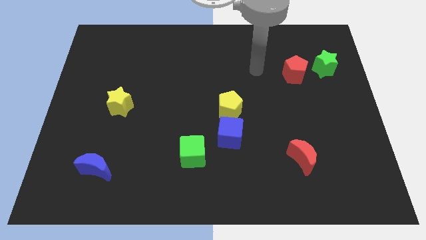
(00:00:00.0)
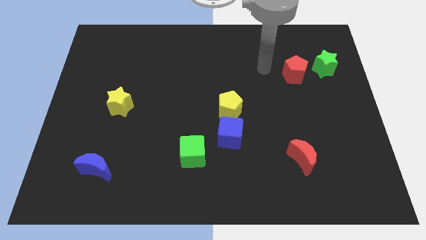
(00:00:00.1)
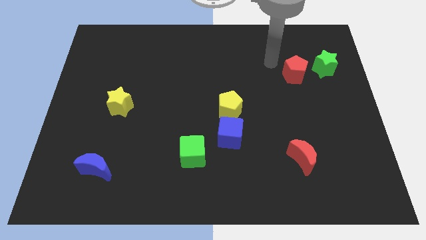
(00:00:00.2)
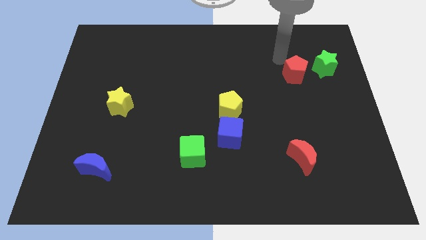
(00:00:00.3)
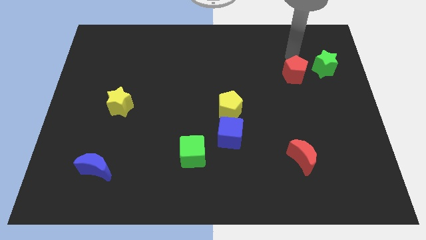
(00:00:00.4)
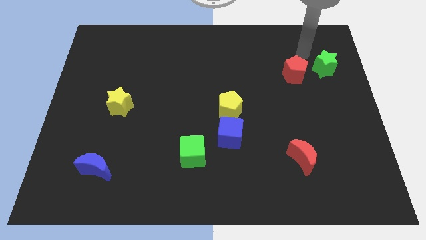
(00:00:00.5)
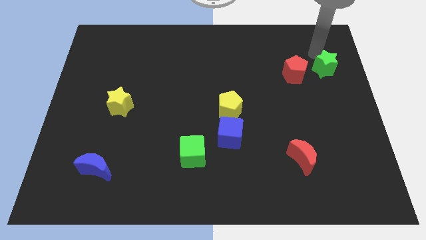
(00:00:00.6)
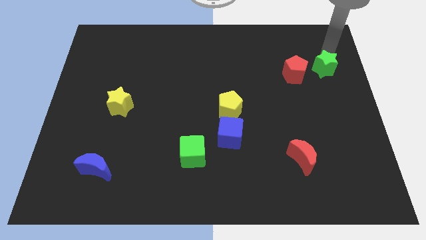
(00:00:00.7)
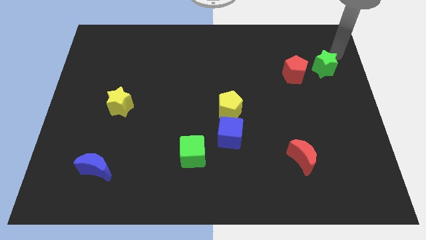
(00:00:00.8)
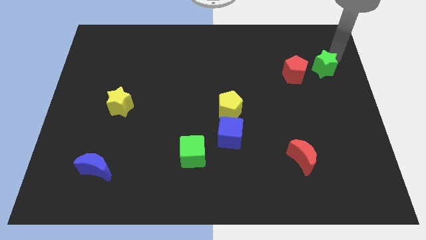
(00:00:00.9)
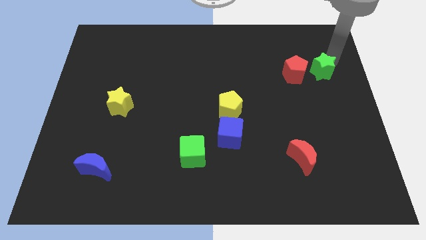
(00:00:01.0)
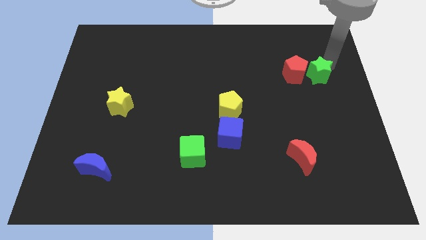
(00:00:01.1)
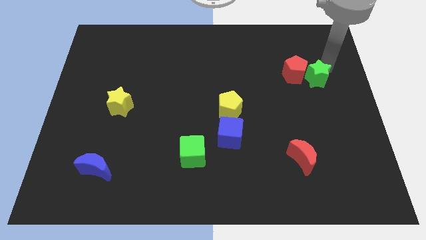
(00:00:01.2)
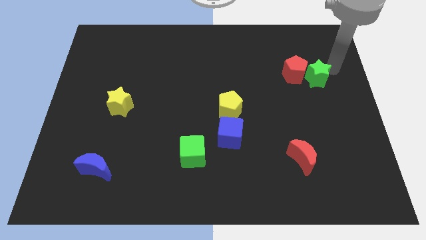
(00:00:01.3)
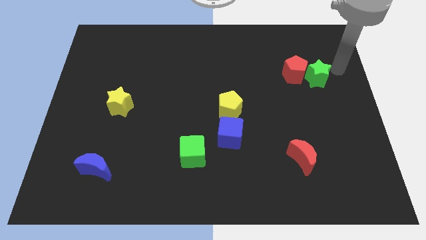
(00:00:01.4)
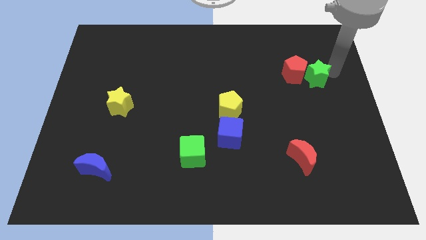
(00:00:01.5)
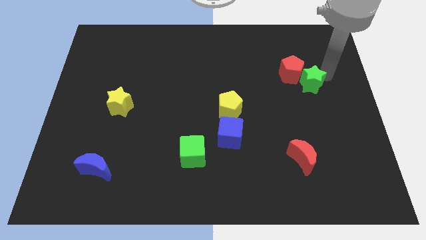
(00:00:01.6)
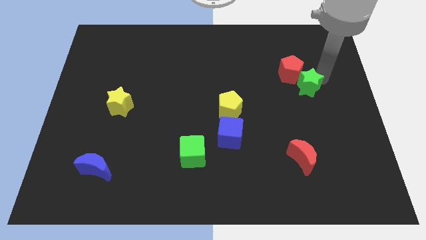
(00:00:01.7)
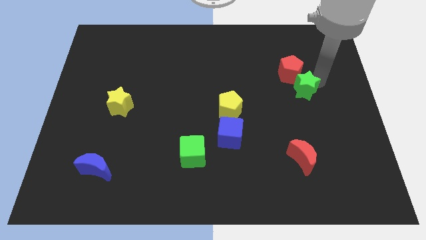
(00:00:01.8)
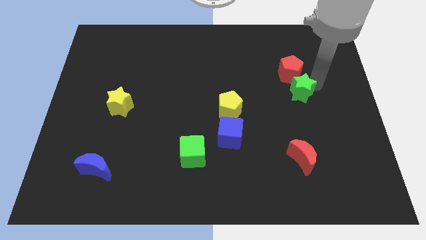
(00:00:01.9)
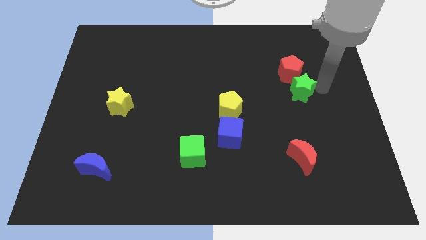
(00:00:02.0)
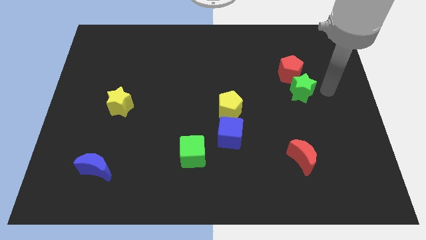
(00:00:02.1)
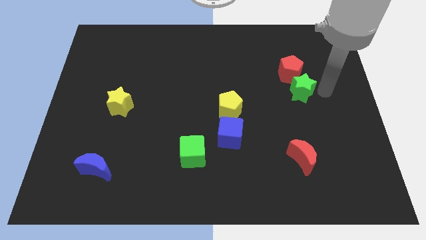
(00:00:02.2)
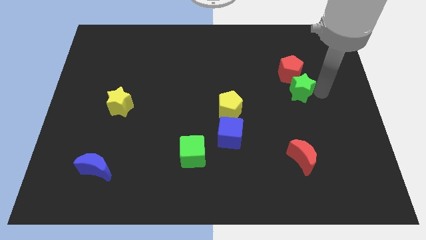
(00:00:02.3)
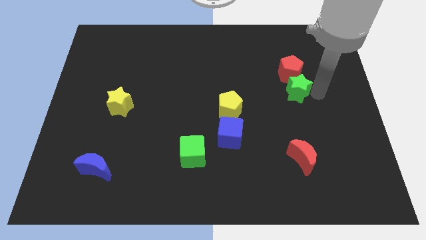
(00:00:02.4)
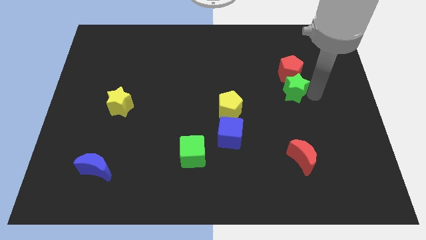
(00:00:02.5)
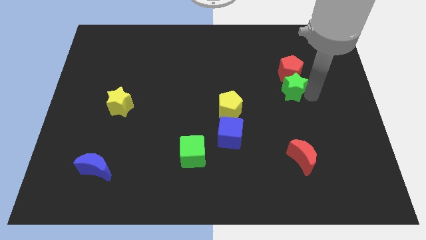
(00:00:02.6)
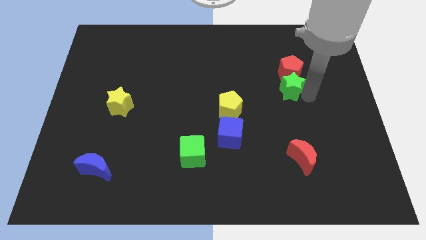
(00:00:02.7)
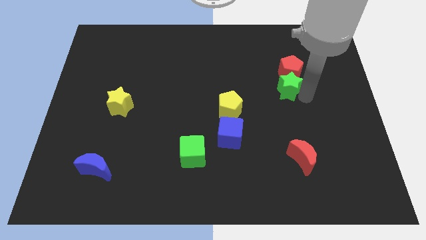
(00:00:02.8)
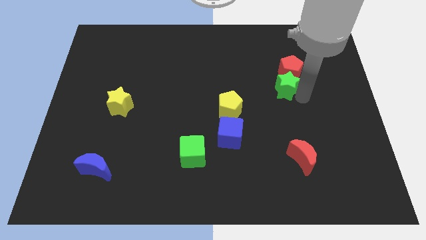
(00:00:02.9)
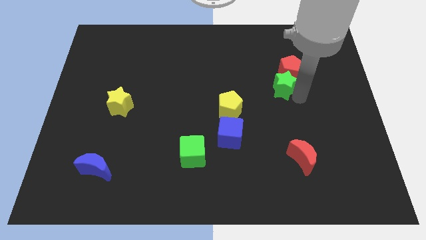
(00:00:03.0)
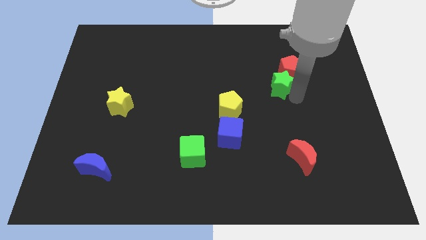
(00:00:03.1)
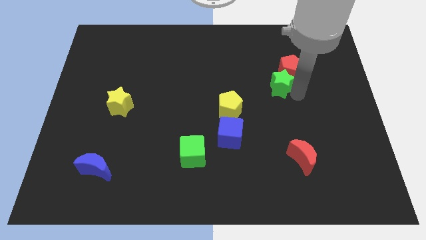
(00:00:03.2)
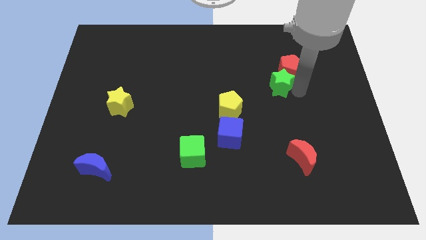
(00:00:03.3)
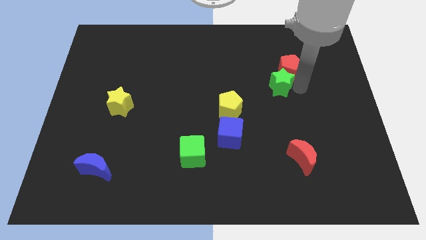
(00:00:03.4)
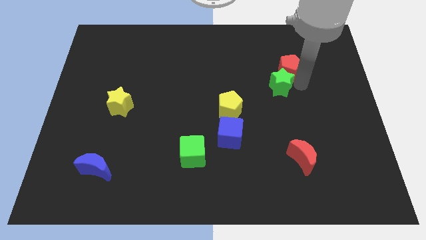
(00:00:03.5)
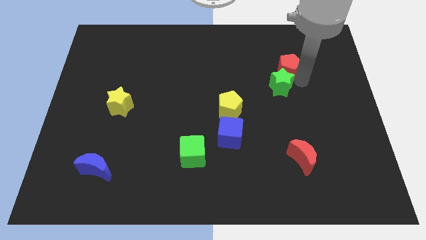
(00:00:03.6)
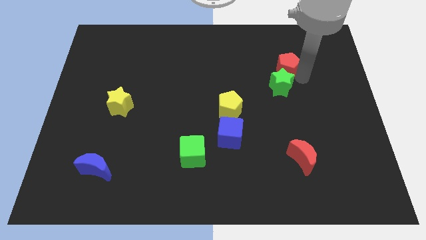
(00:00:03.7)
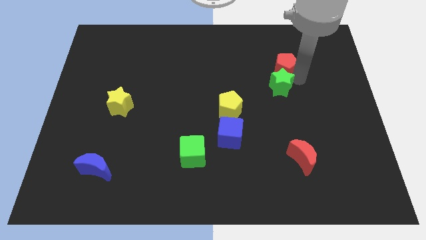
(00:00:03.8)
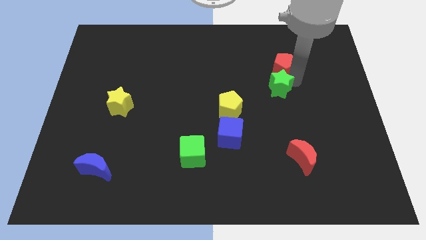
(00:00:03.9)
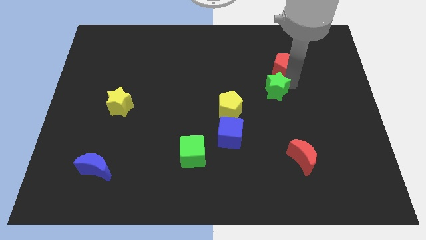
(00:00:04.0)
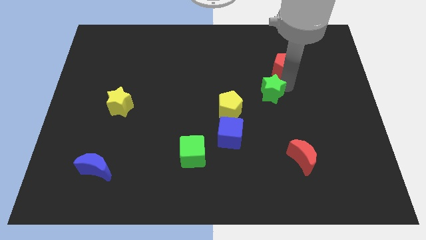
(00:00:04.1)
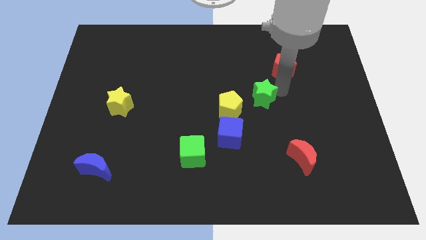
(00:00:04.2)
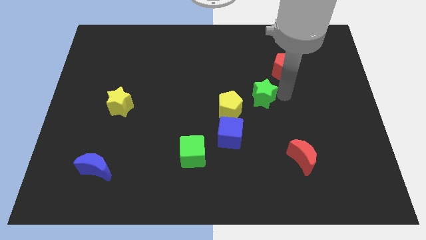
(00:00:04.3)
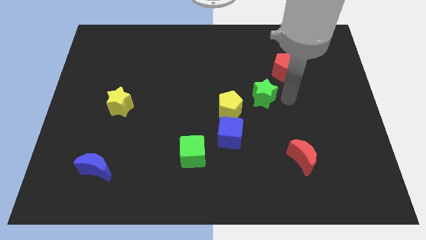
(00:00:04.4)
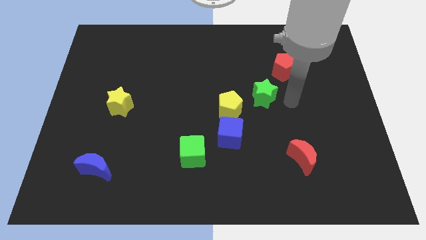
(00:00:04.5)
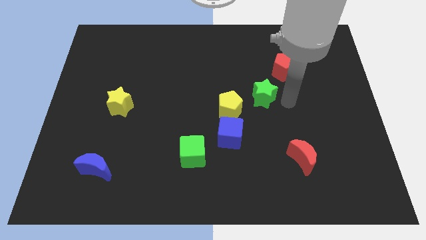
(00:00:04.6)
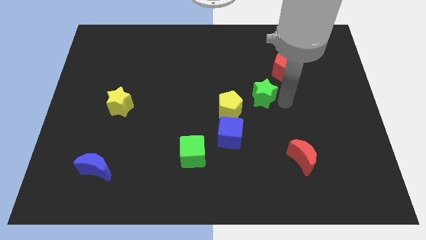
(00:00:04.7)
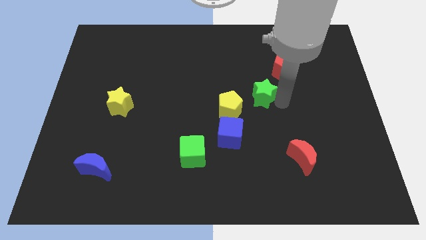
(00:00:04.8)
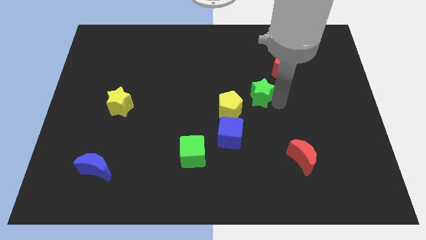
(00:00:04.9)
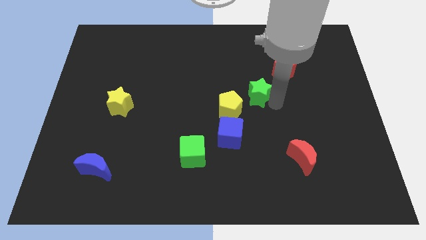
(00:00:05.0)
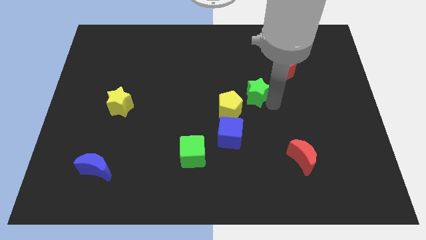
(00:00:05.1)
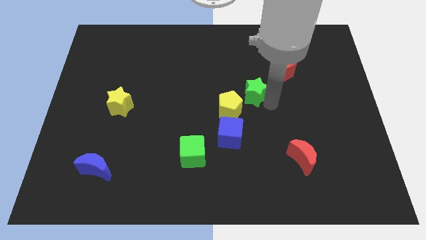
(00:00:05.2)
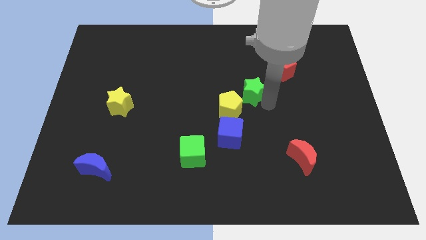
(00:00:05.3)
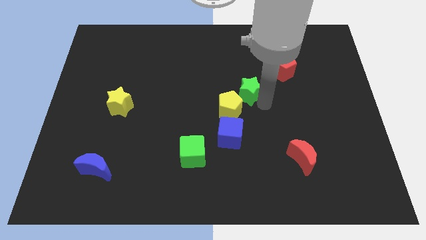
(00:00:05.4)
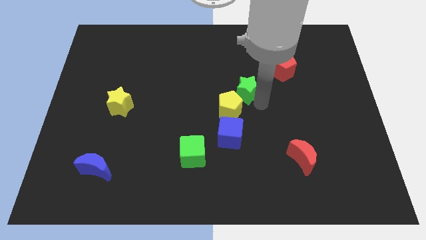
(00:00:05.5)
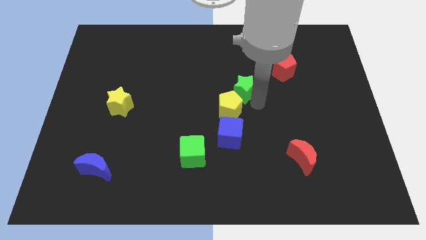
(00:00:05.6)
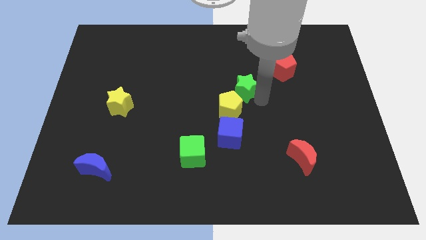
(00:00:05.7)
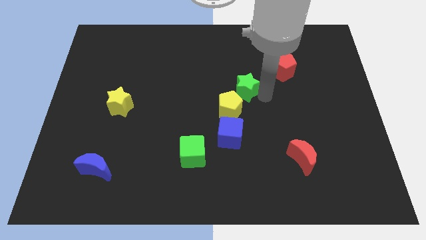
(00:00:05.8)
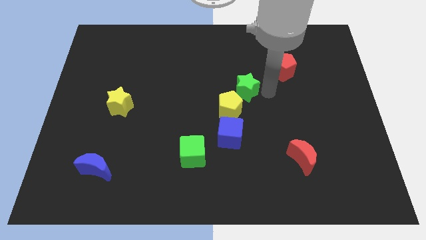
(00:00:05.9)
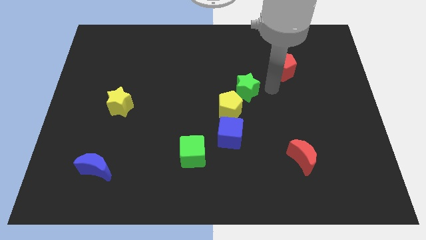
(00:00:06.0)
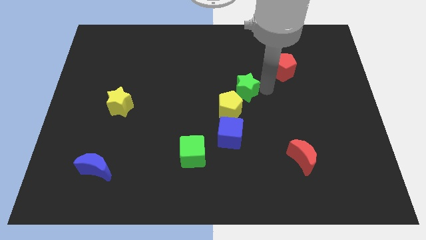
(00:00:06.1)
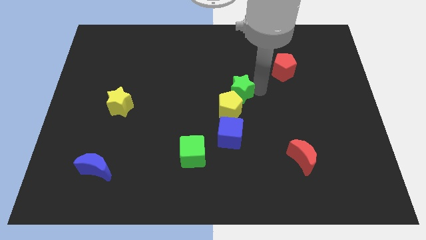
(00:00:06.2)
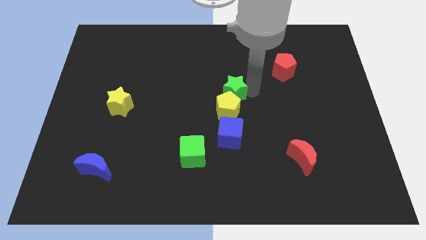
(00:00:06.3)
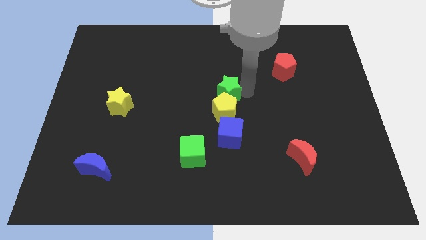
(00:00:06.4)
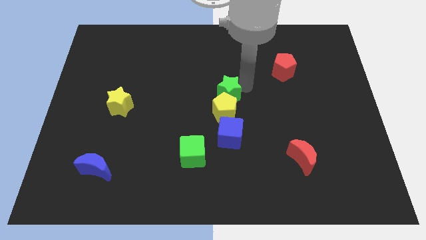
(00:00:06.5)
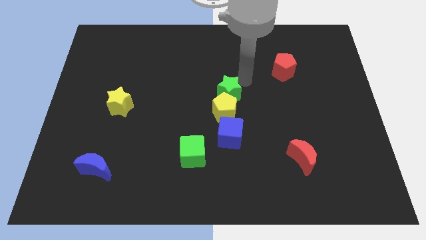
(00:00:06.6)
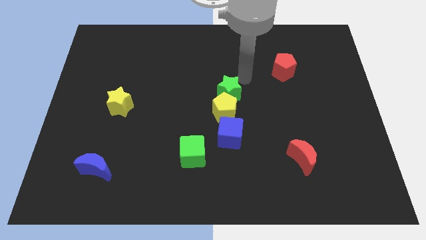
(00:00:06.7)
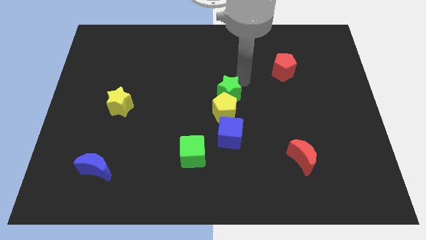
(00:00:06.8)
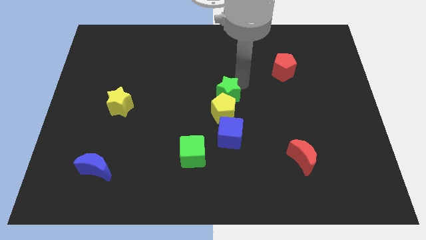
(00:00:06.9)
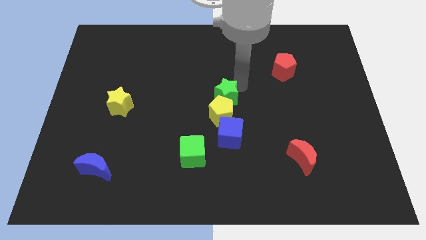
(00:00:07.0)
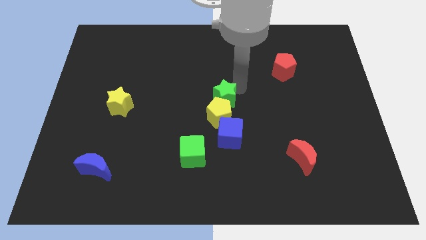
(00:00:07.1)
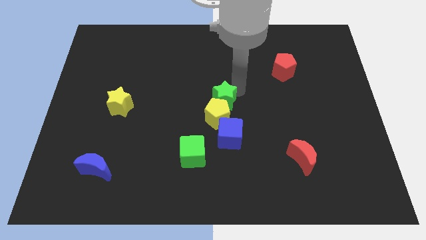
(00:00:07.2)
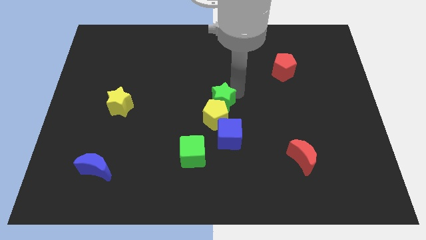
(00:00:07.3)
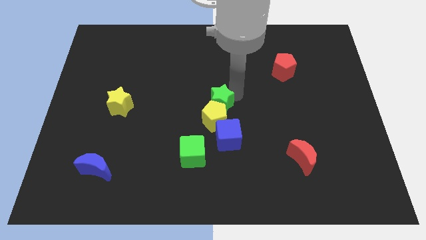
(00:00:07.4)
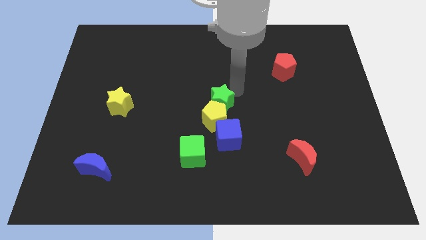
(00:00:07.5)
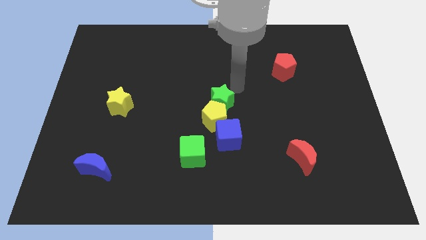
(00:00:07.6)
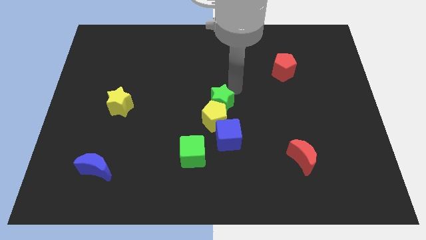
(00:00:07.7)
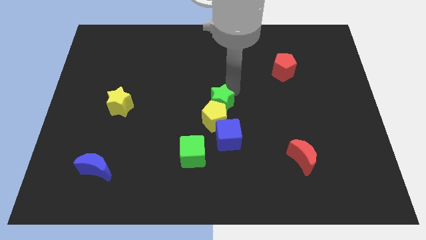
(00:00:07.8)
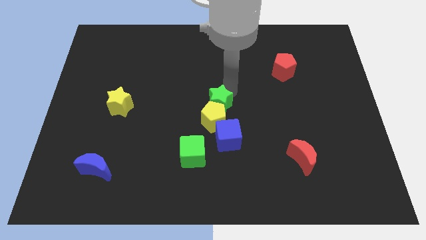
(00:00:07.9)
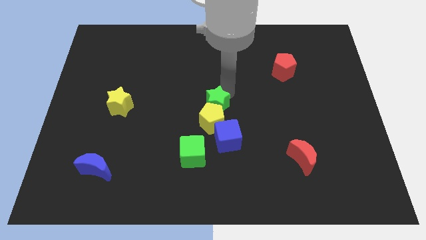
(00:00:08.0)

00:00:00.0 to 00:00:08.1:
slide the green star to the top left side of the blue cube
